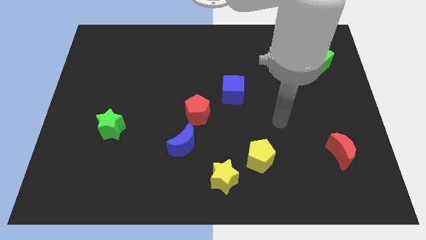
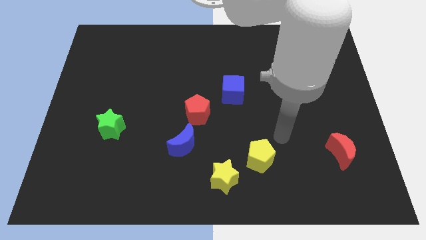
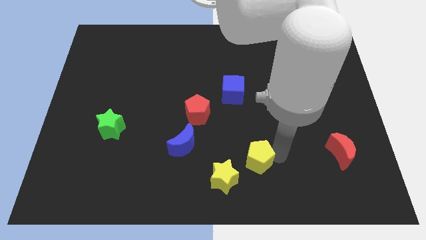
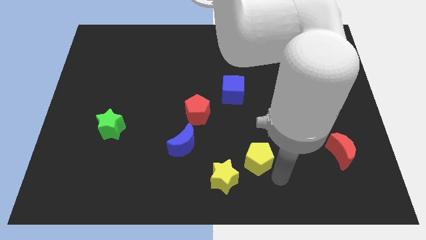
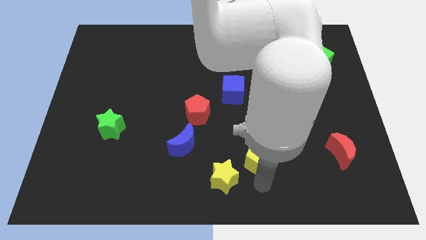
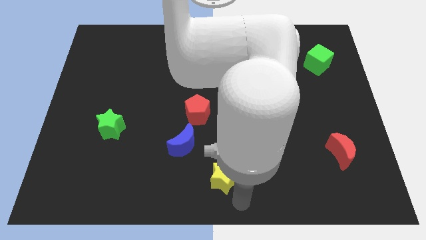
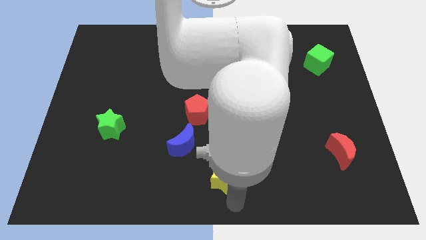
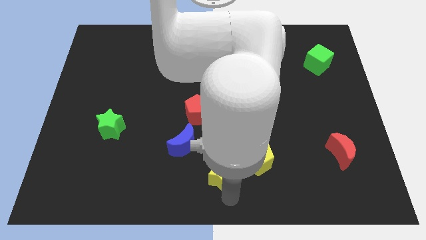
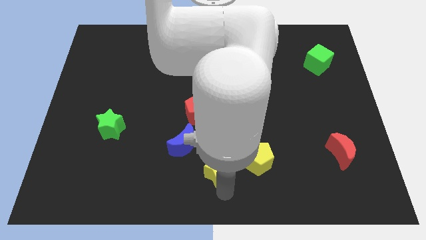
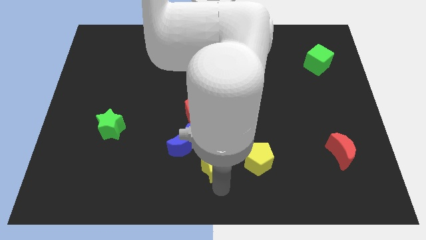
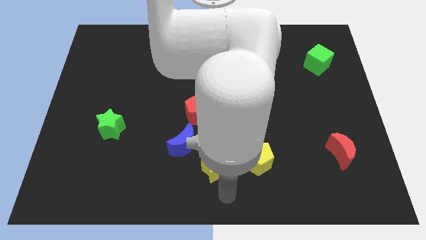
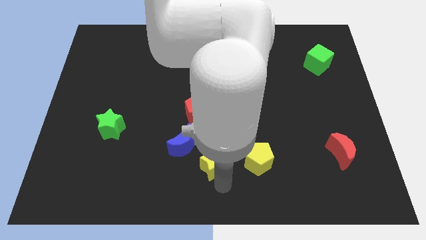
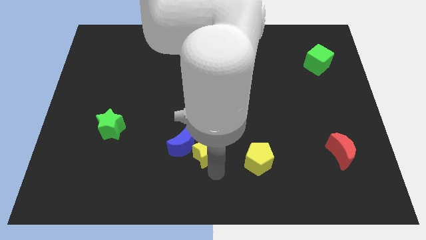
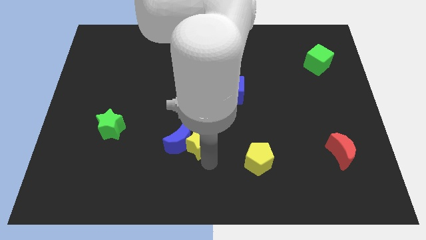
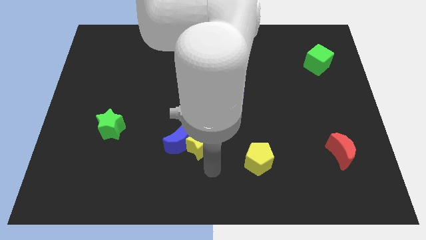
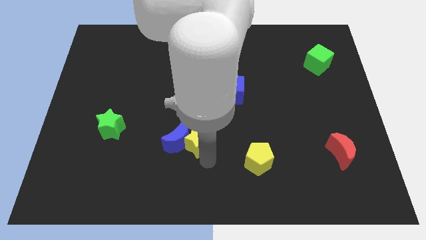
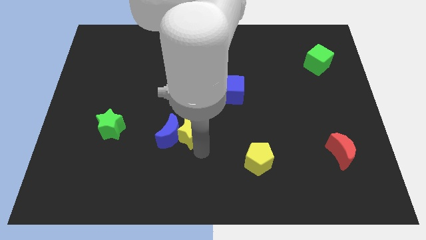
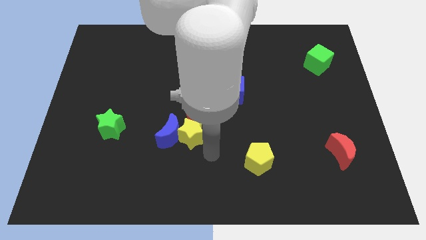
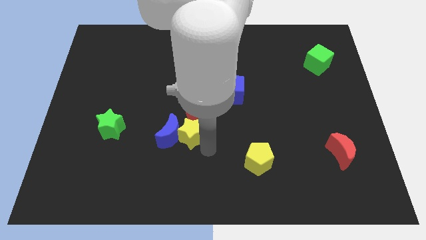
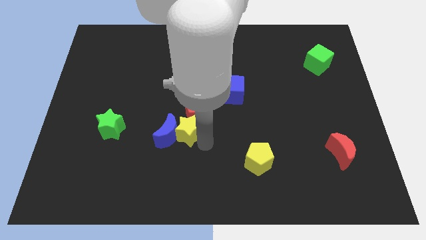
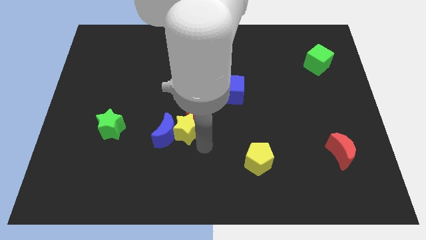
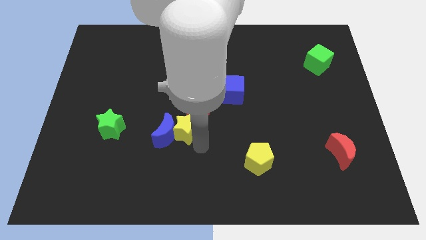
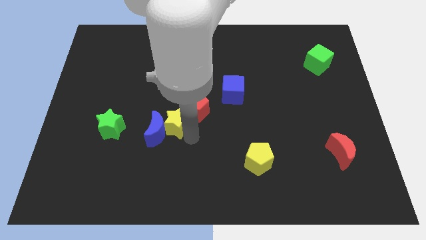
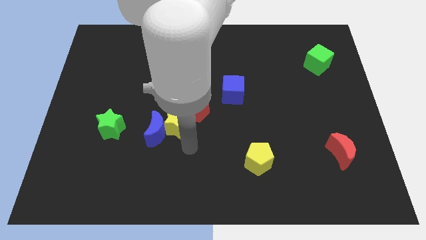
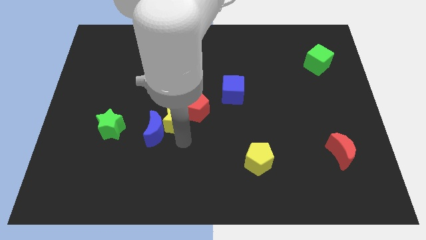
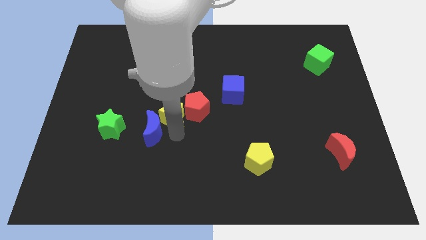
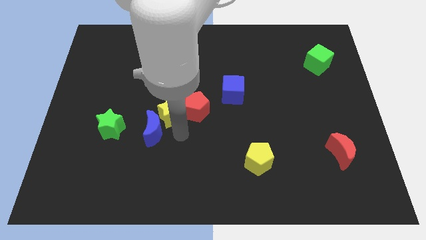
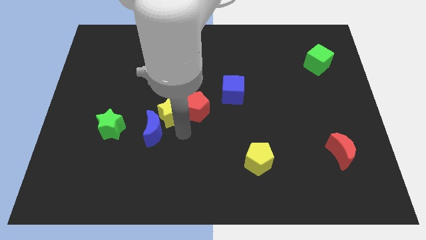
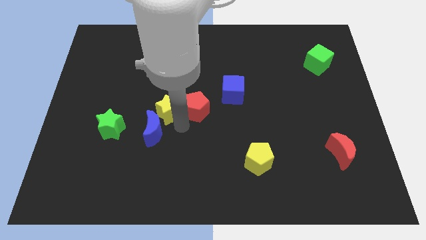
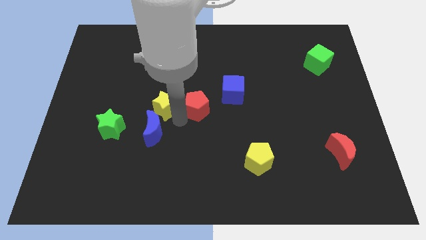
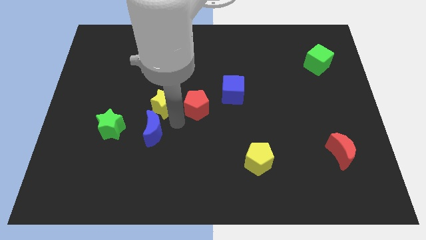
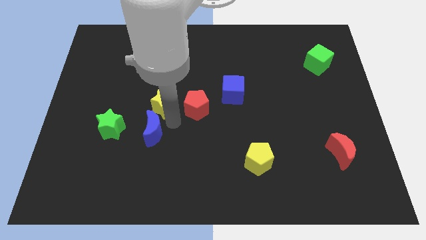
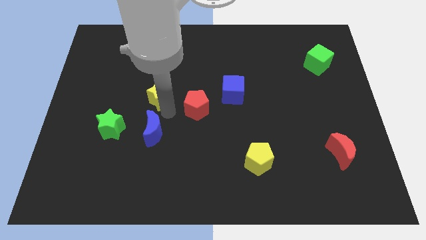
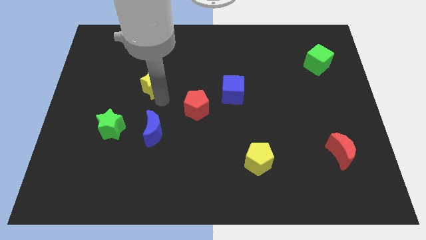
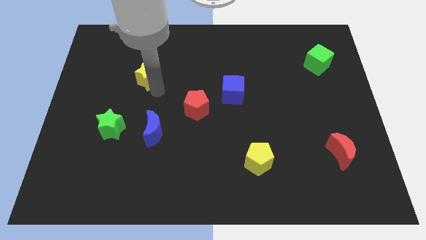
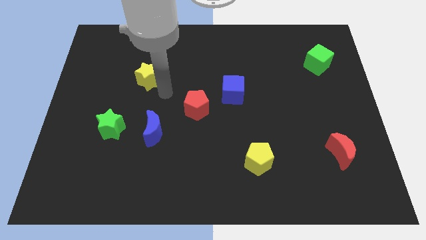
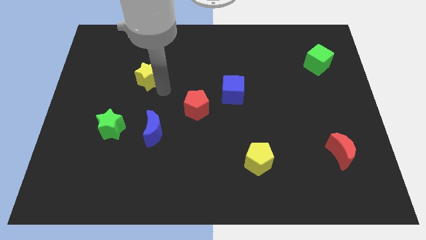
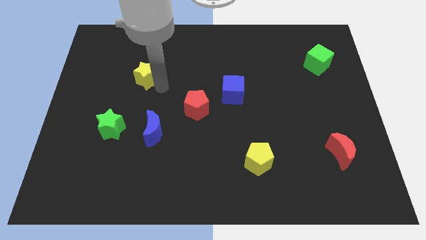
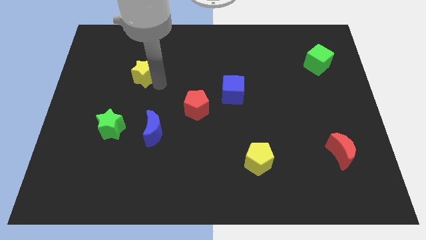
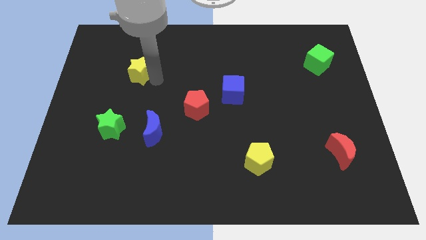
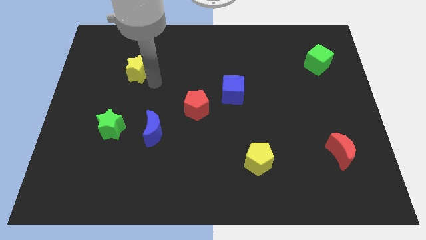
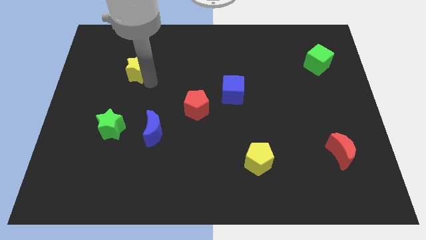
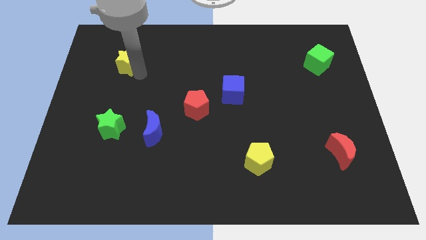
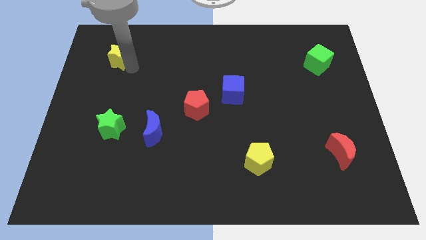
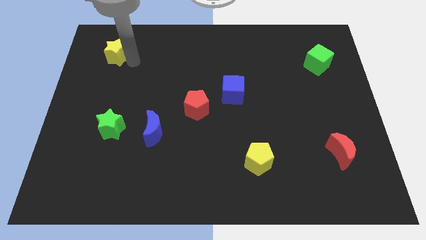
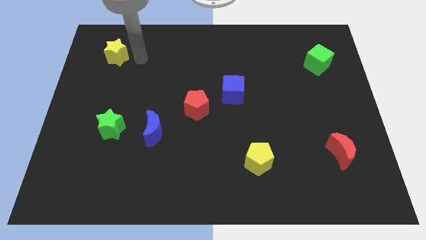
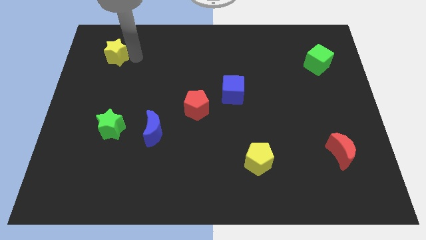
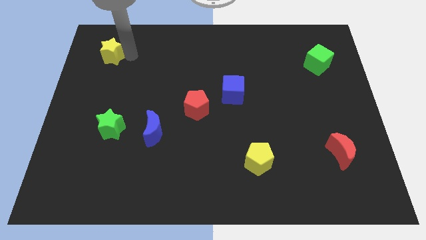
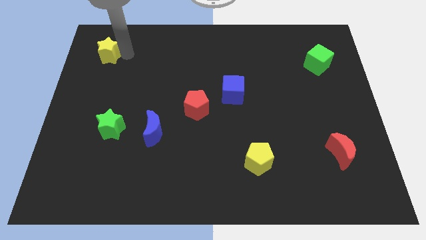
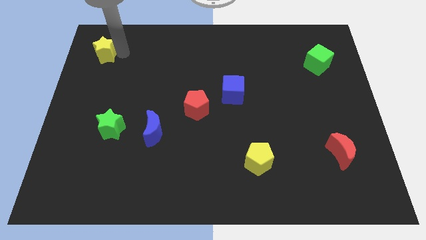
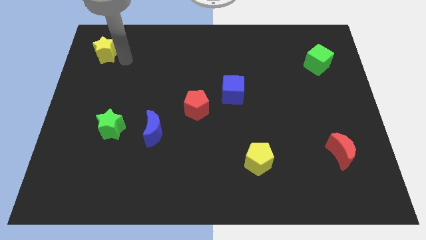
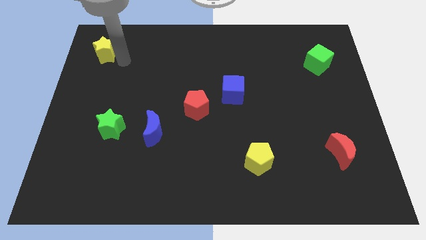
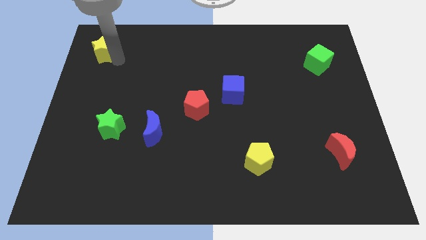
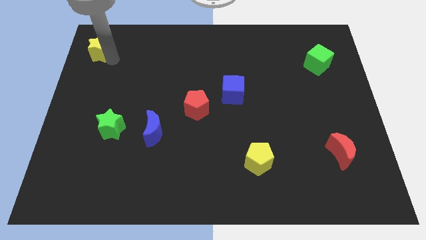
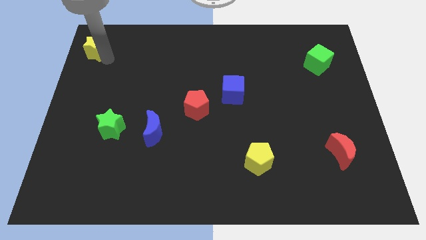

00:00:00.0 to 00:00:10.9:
push the yellow star to the top left corner

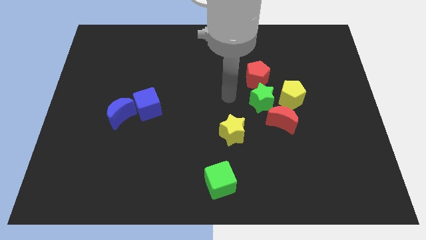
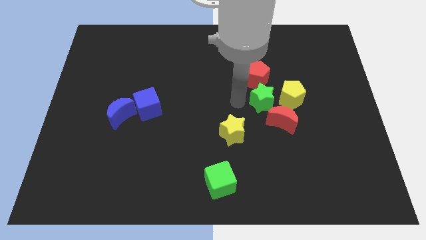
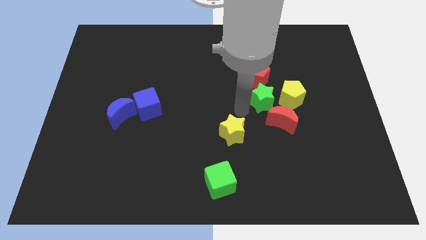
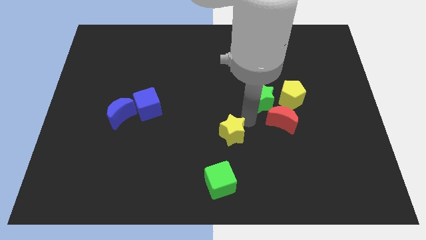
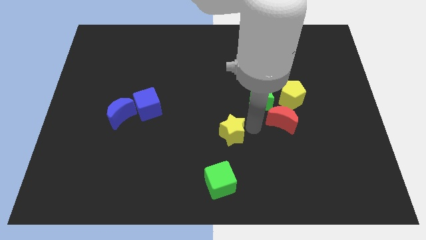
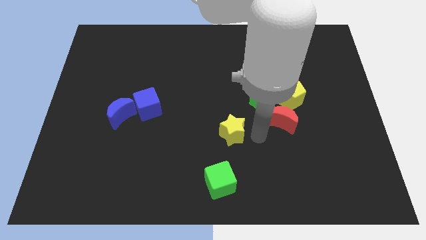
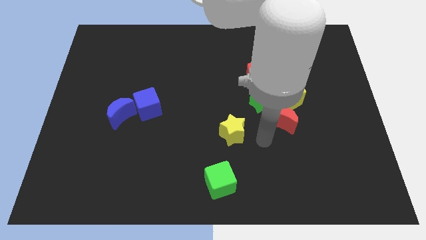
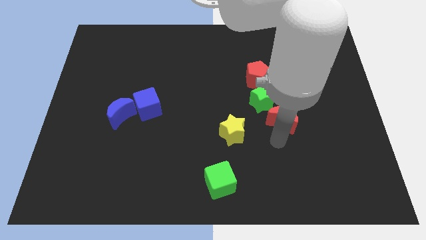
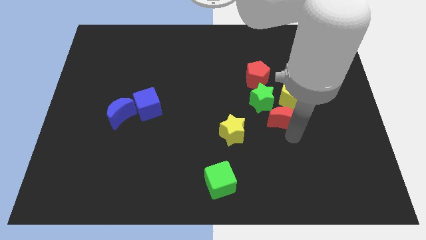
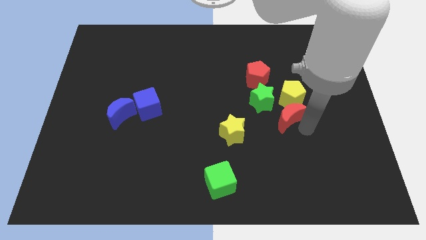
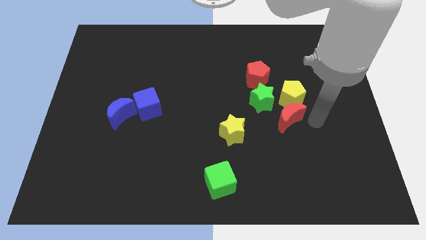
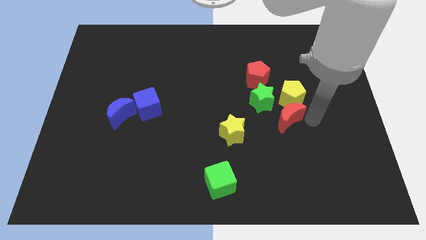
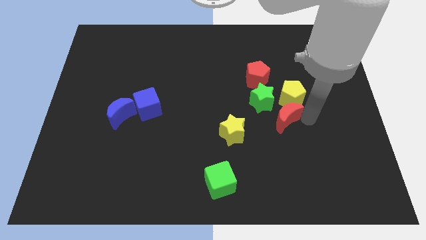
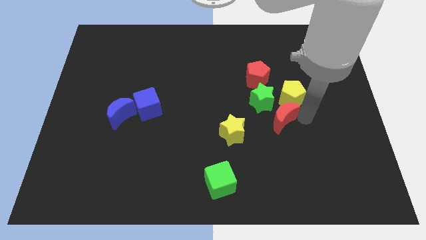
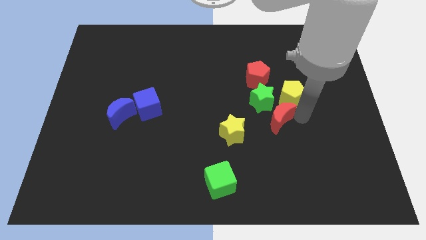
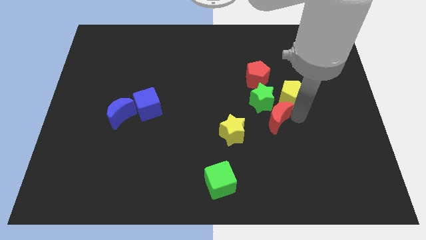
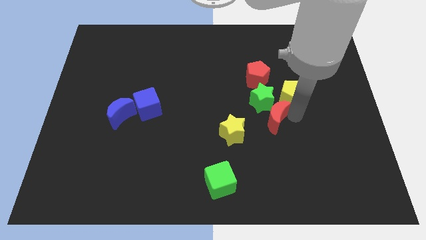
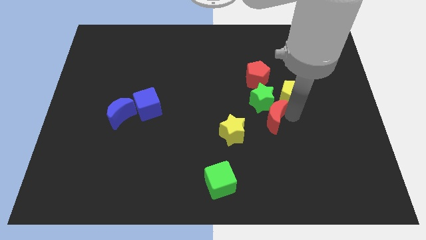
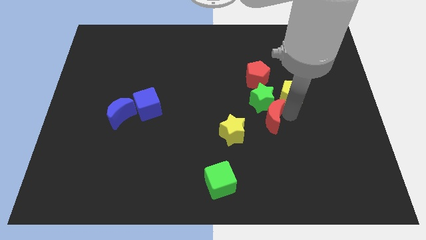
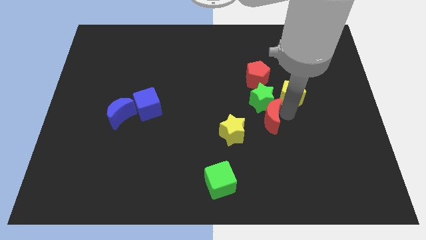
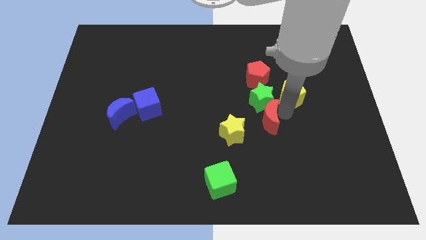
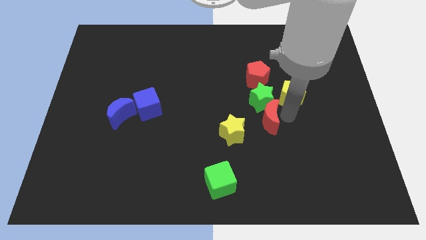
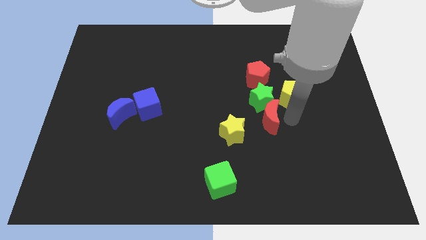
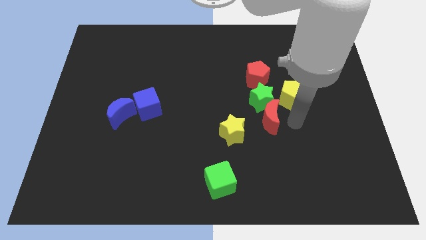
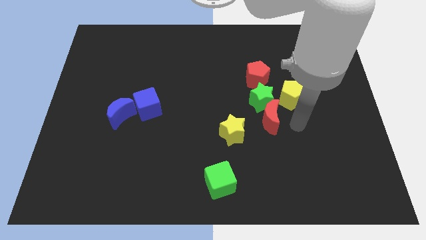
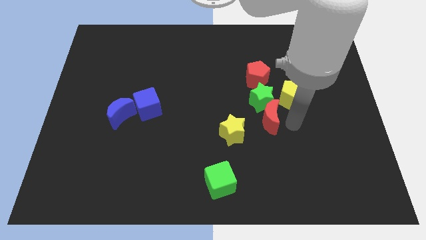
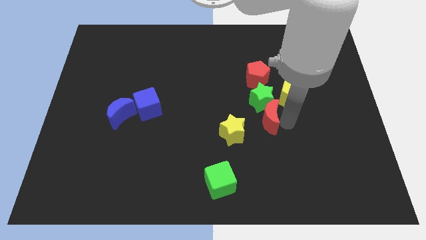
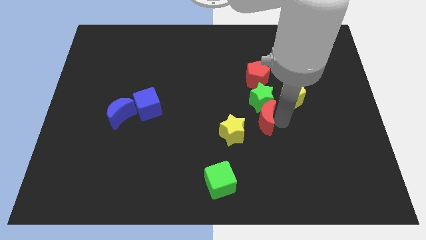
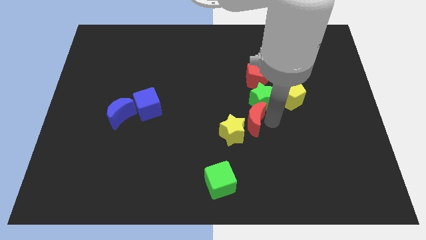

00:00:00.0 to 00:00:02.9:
move the red moon to the center
